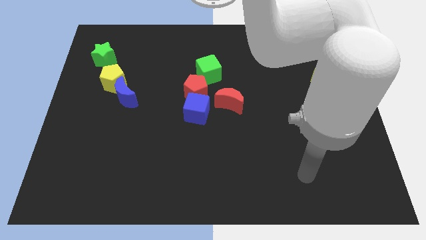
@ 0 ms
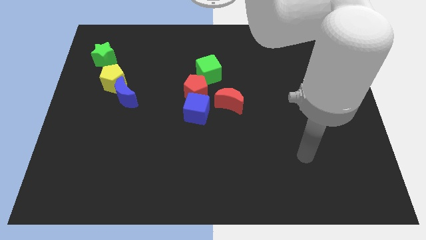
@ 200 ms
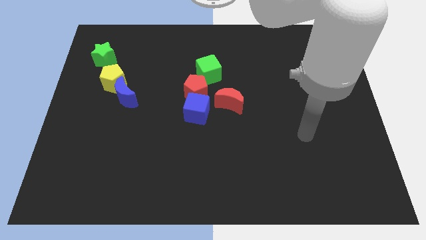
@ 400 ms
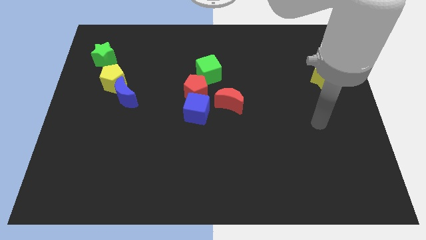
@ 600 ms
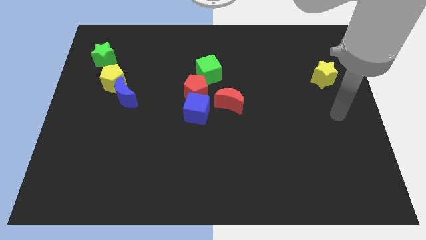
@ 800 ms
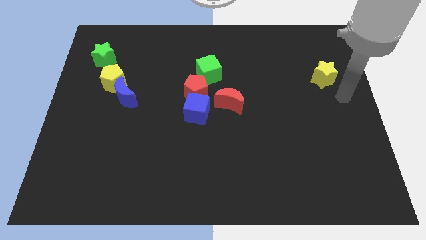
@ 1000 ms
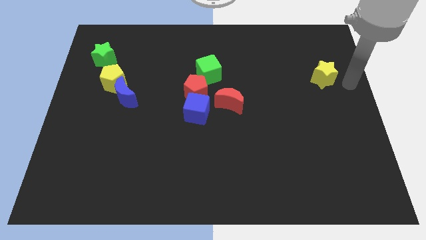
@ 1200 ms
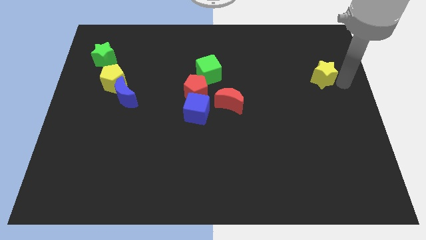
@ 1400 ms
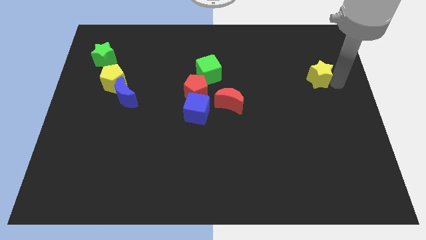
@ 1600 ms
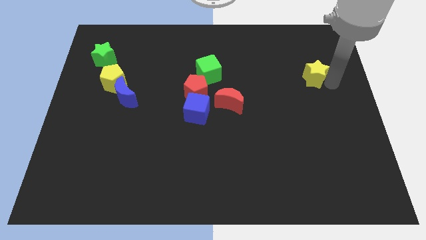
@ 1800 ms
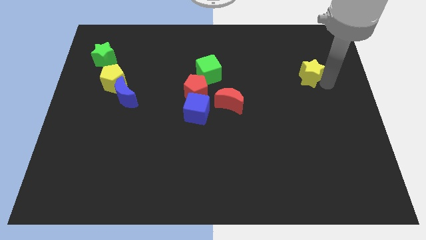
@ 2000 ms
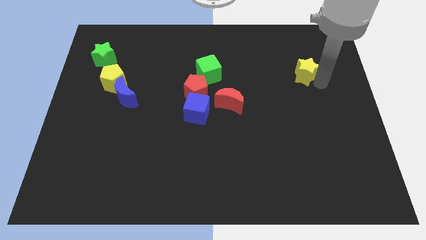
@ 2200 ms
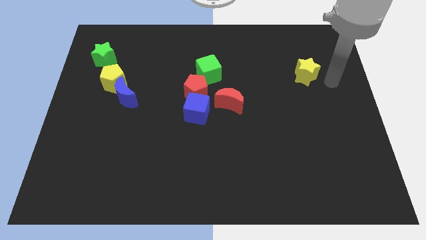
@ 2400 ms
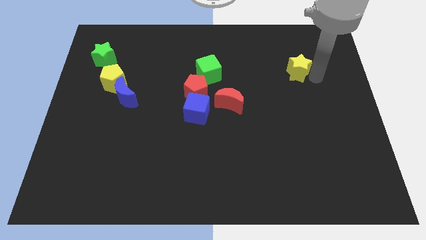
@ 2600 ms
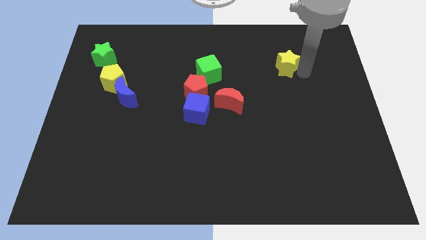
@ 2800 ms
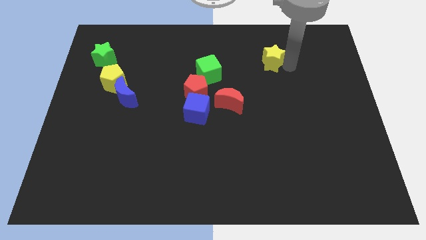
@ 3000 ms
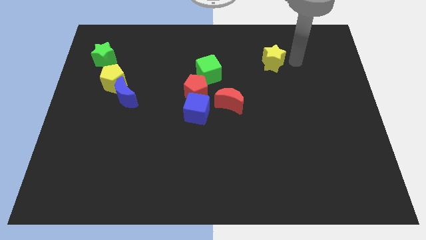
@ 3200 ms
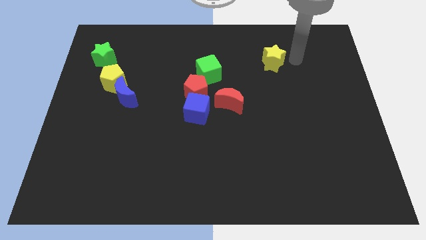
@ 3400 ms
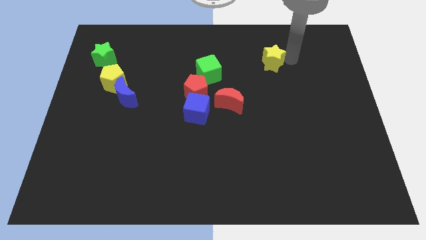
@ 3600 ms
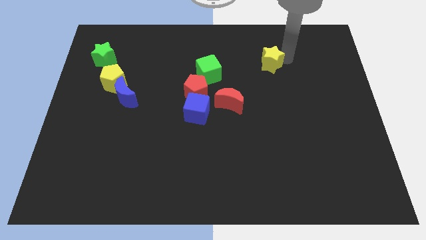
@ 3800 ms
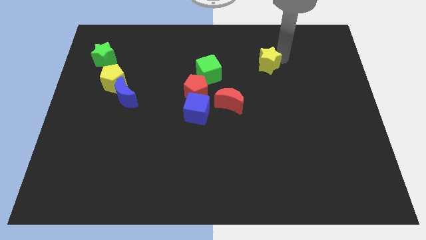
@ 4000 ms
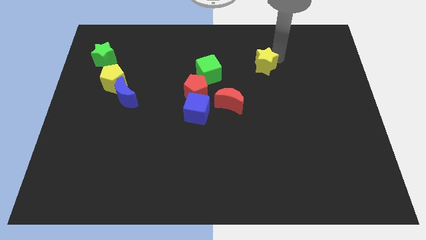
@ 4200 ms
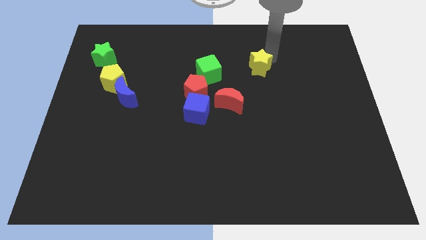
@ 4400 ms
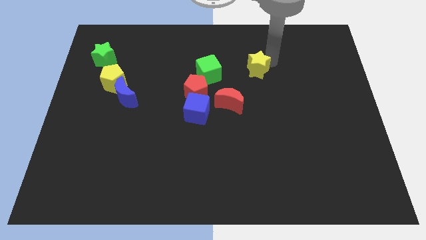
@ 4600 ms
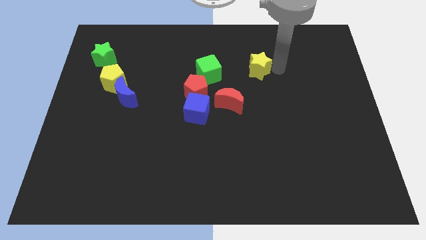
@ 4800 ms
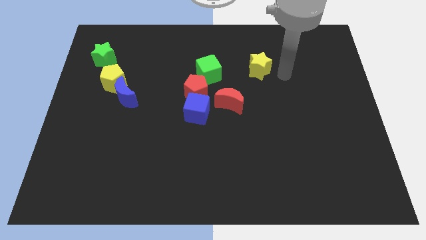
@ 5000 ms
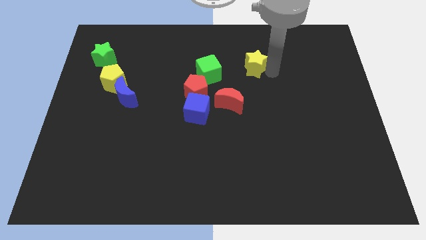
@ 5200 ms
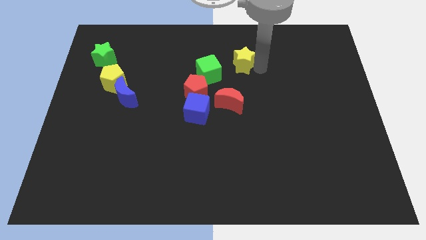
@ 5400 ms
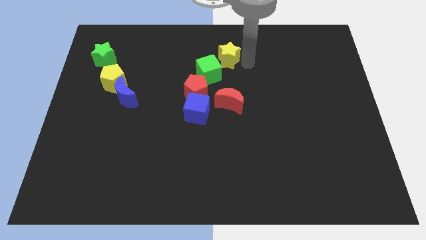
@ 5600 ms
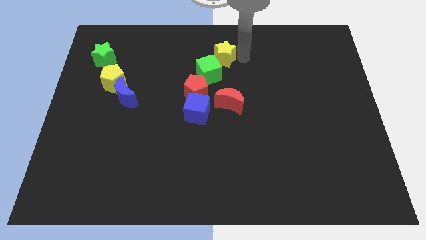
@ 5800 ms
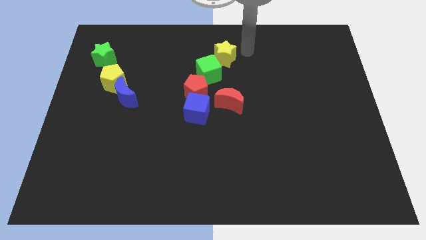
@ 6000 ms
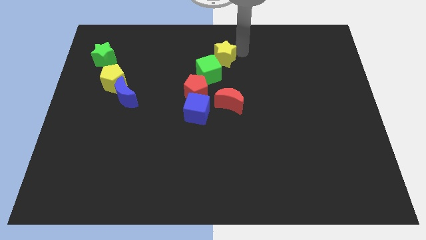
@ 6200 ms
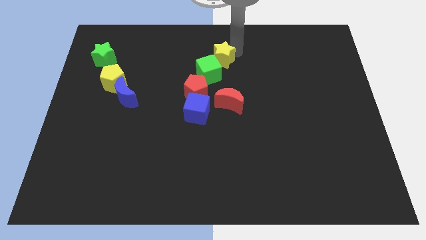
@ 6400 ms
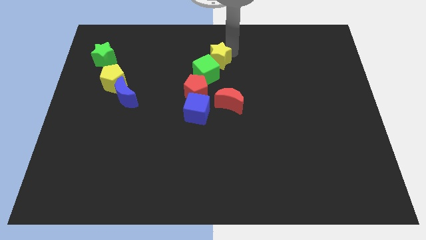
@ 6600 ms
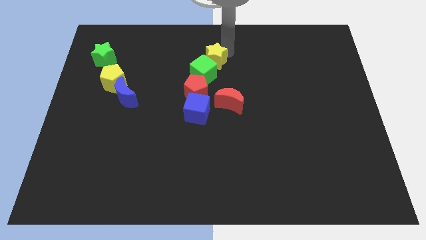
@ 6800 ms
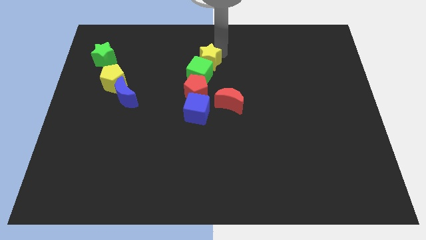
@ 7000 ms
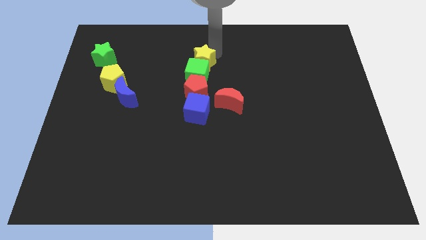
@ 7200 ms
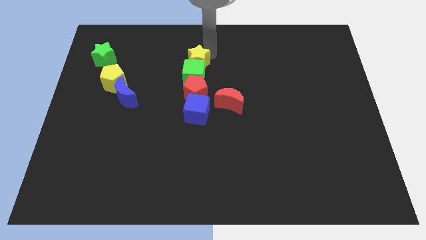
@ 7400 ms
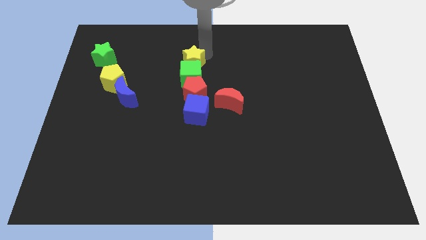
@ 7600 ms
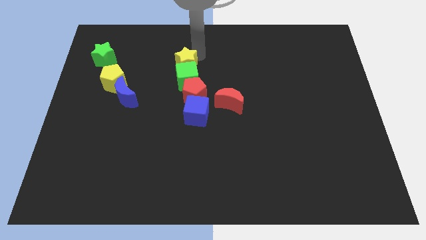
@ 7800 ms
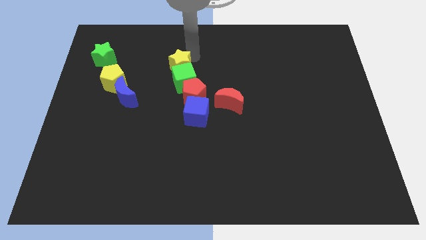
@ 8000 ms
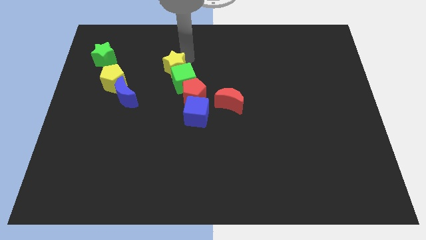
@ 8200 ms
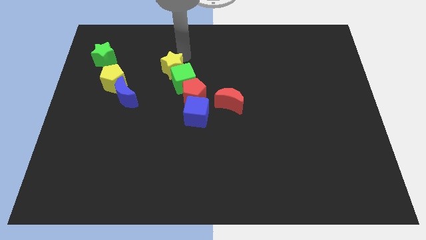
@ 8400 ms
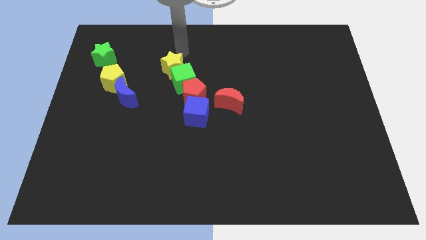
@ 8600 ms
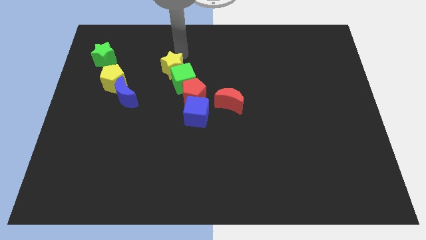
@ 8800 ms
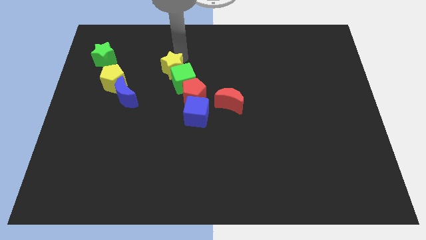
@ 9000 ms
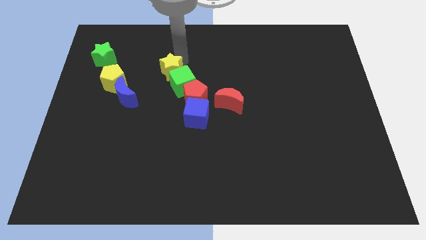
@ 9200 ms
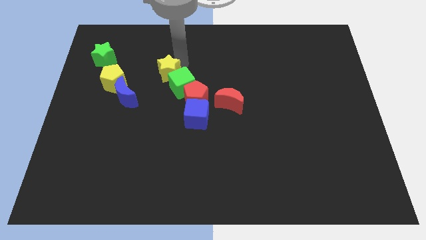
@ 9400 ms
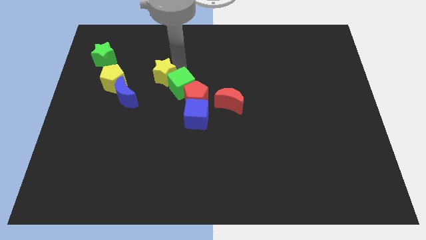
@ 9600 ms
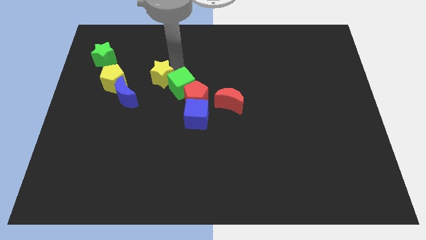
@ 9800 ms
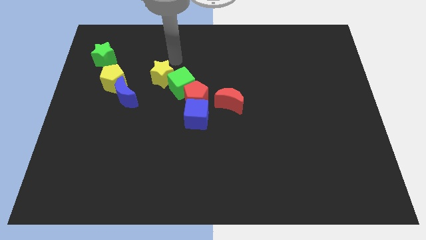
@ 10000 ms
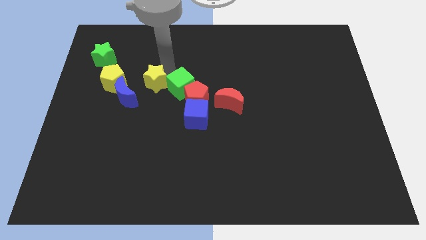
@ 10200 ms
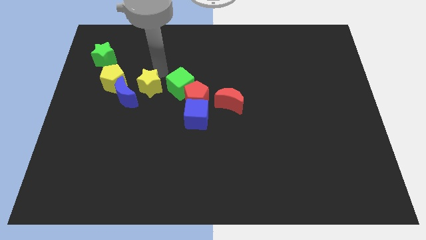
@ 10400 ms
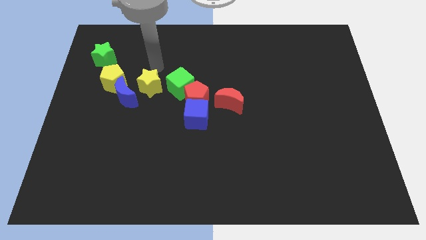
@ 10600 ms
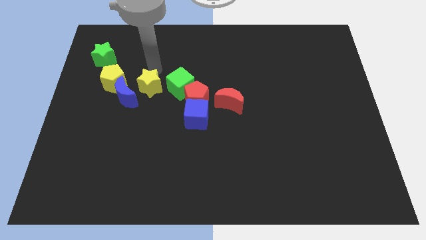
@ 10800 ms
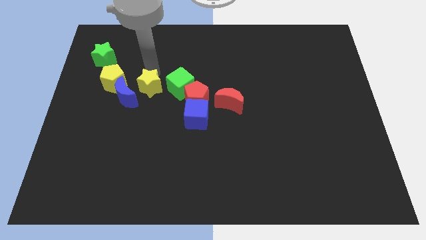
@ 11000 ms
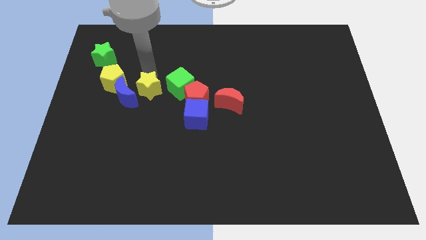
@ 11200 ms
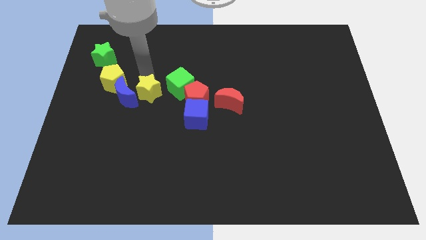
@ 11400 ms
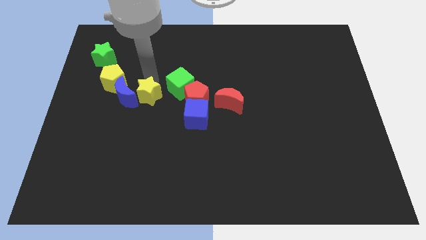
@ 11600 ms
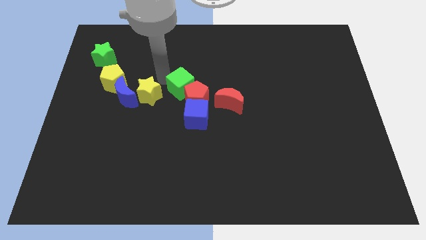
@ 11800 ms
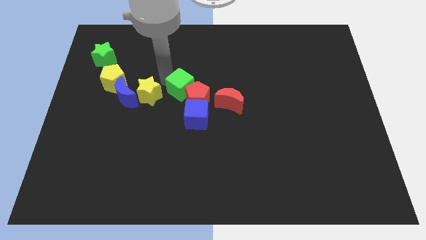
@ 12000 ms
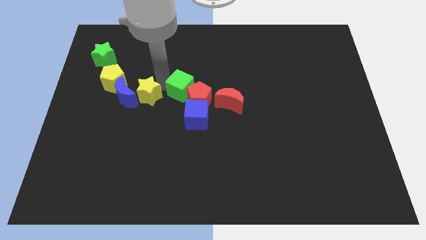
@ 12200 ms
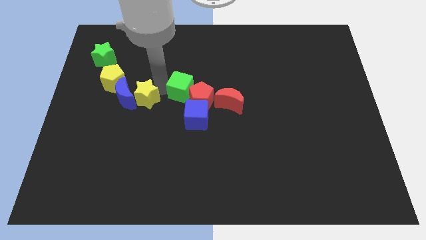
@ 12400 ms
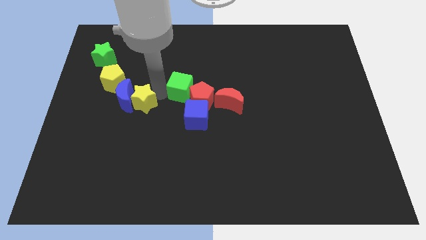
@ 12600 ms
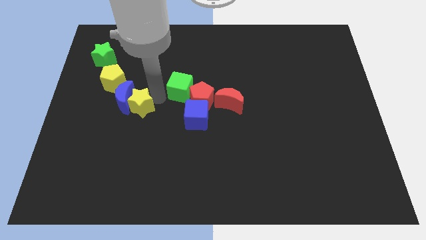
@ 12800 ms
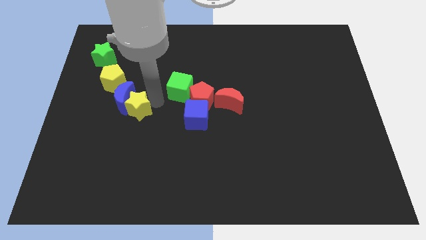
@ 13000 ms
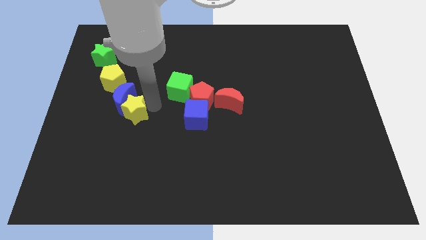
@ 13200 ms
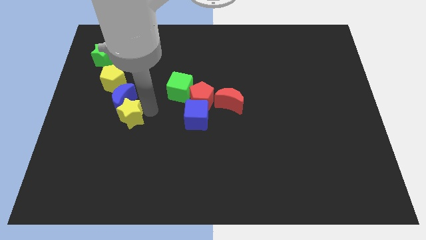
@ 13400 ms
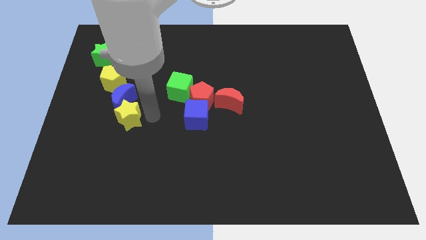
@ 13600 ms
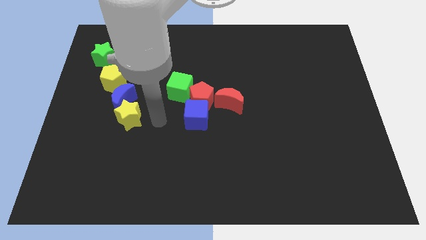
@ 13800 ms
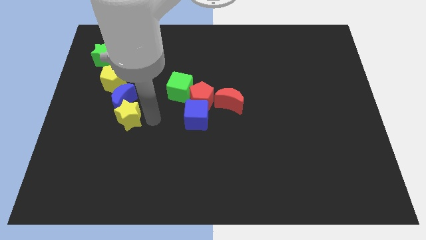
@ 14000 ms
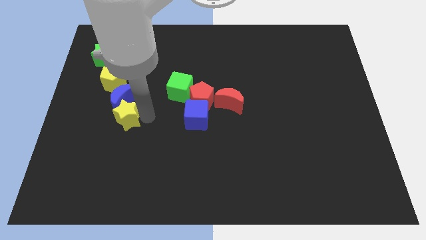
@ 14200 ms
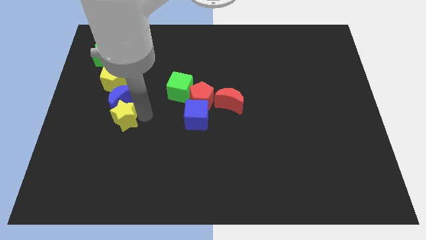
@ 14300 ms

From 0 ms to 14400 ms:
put the yellow star to the bottom of the yellow pentagon
